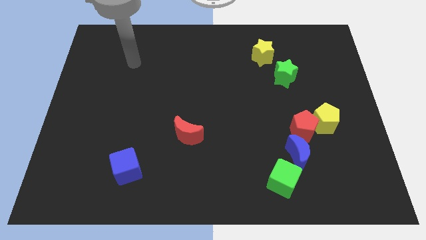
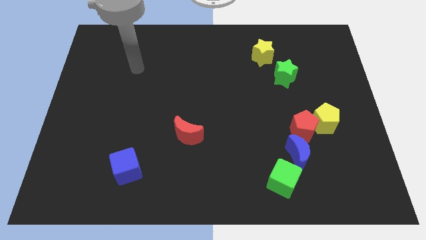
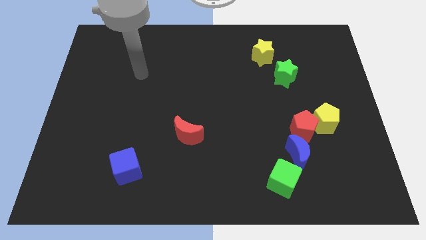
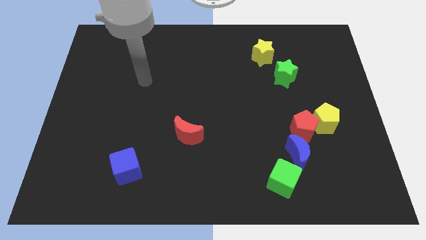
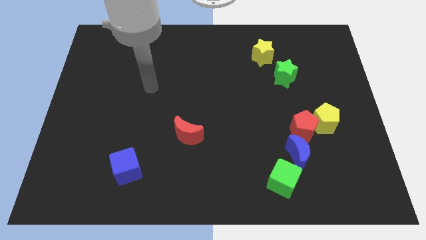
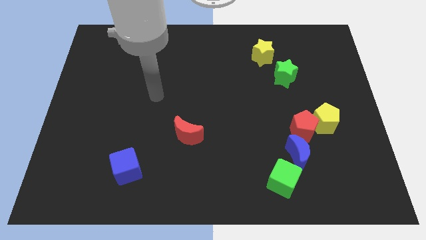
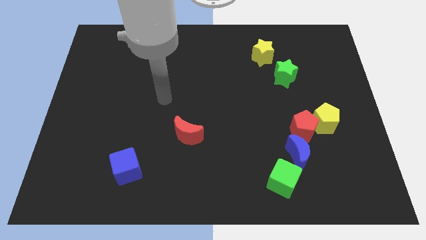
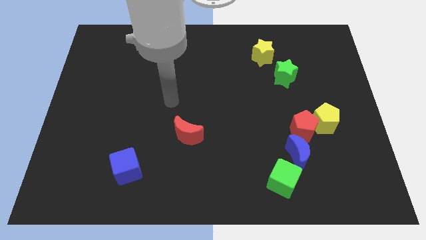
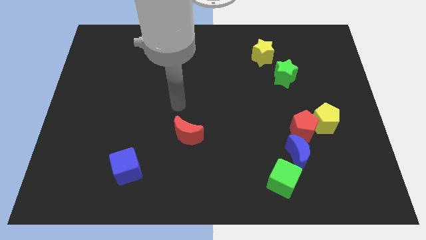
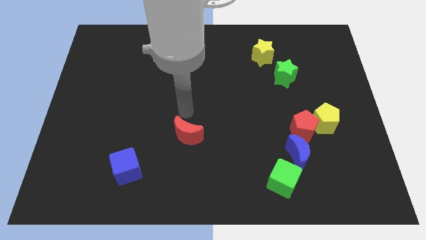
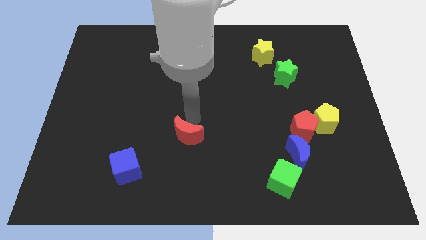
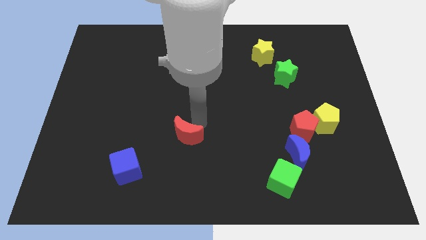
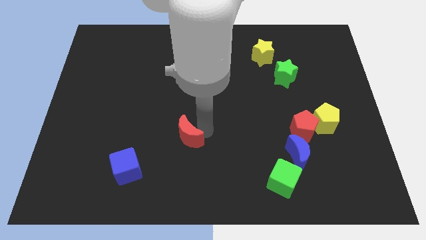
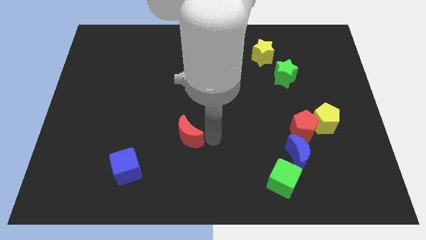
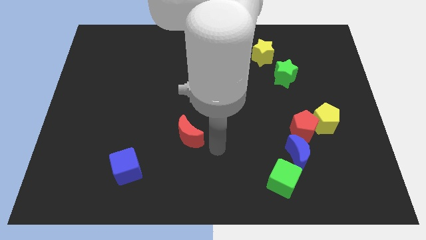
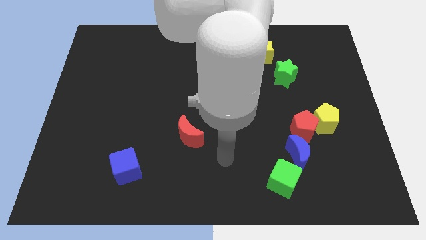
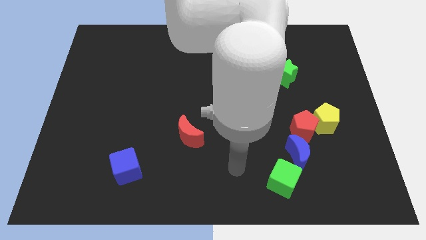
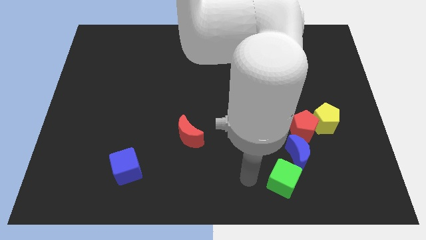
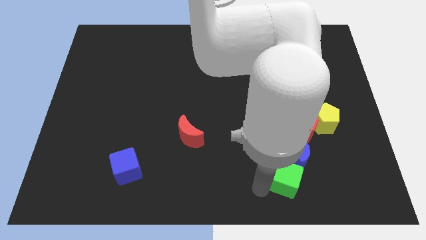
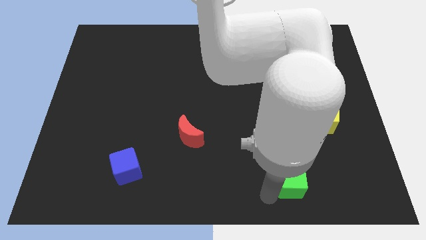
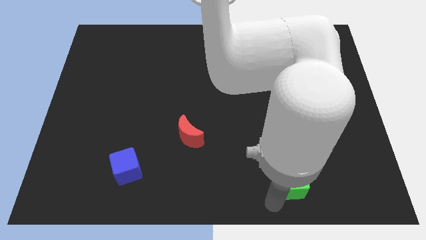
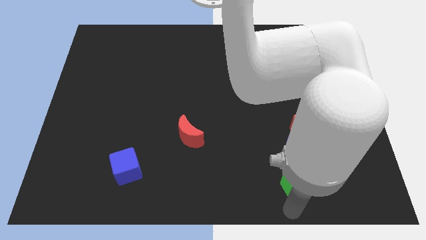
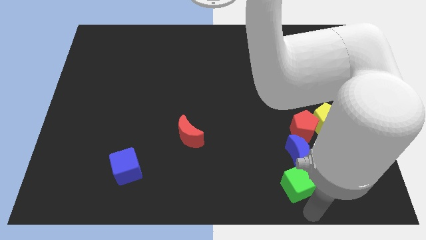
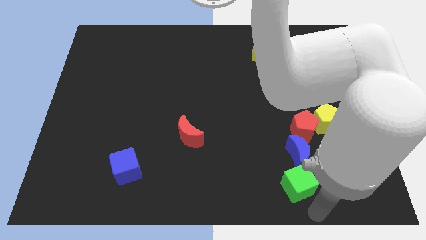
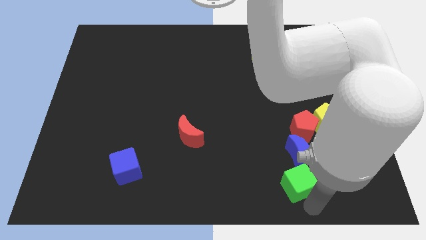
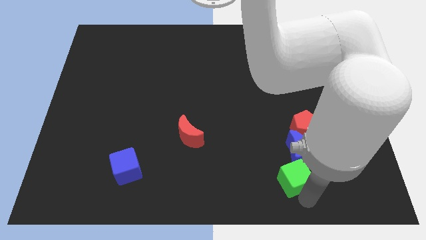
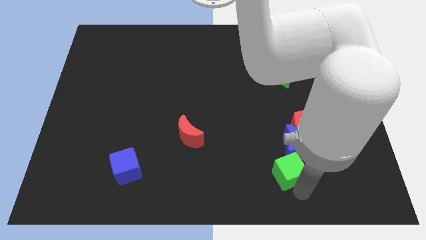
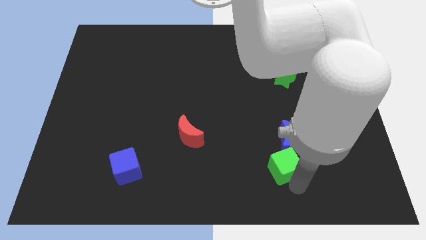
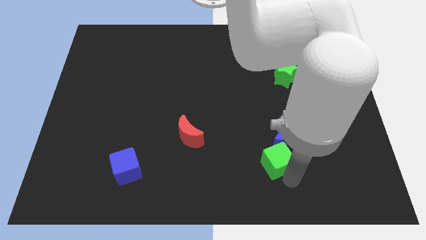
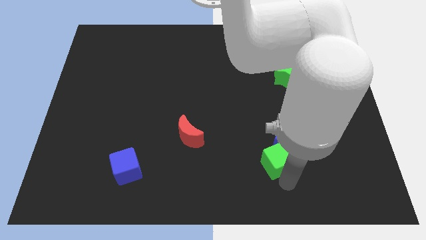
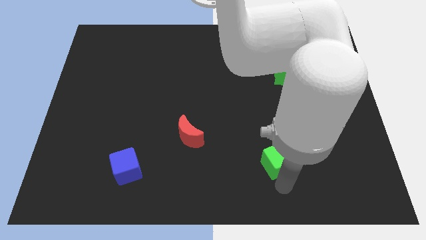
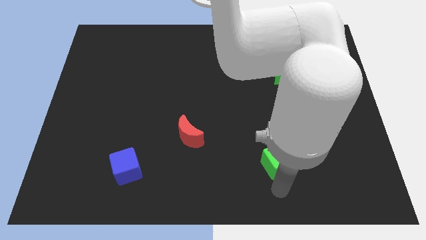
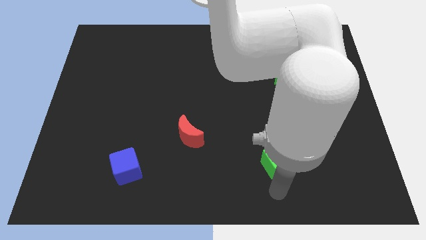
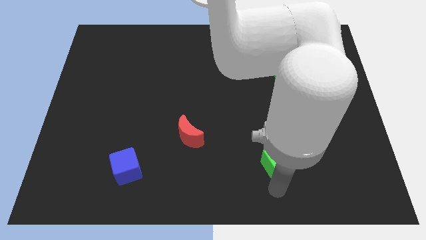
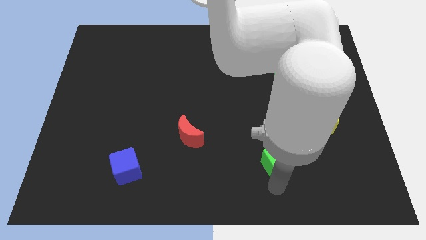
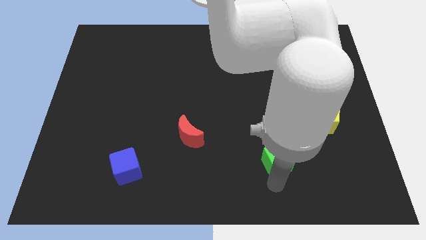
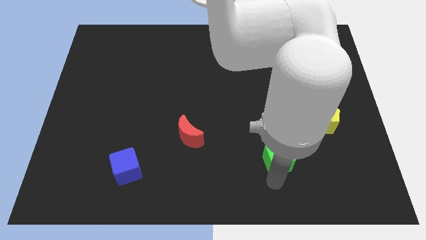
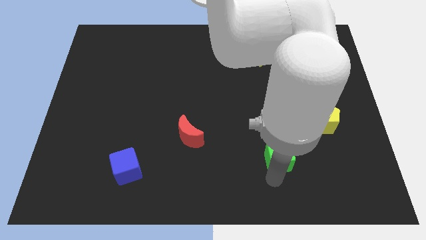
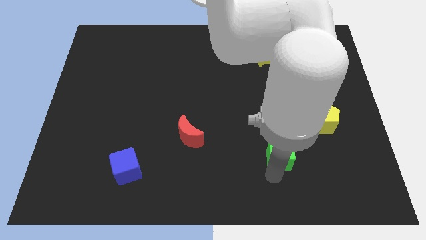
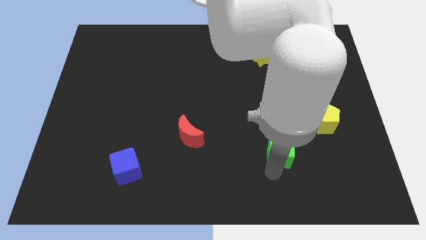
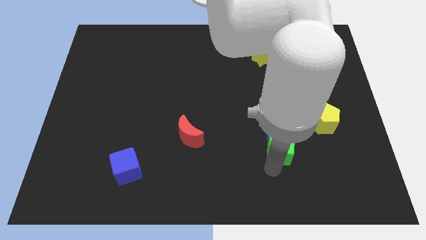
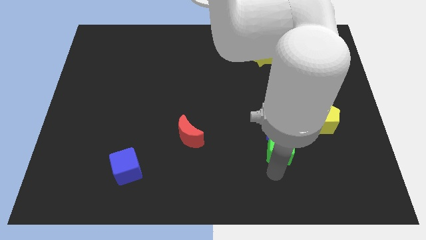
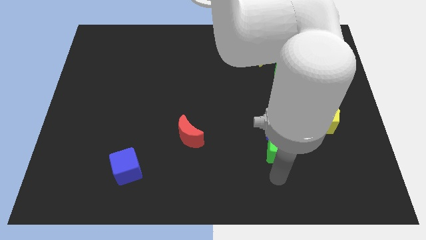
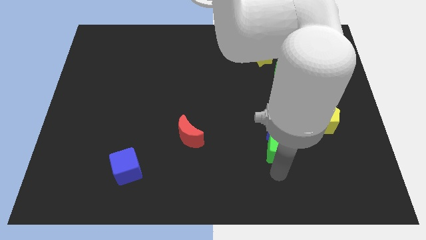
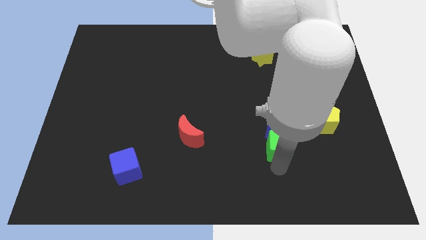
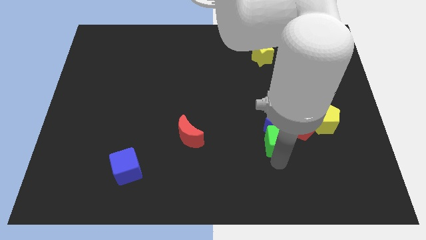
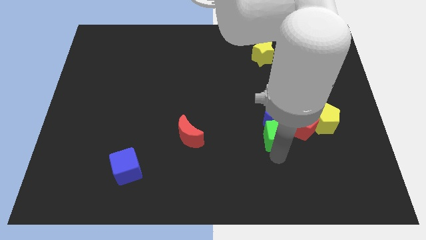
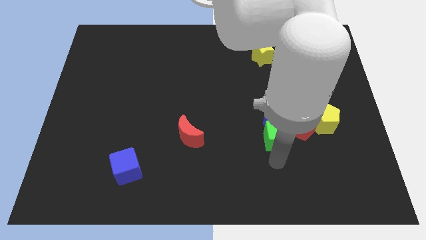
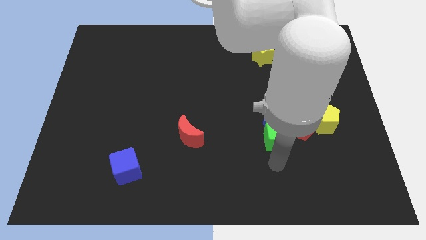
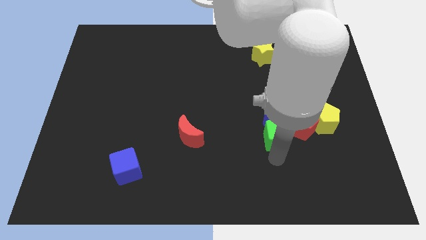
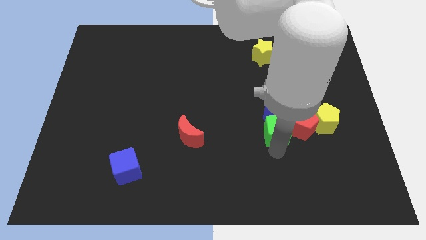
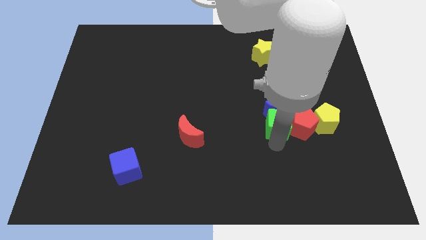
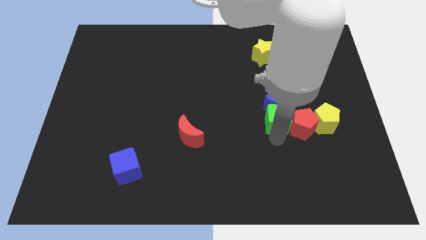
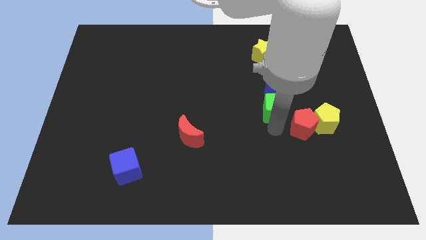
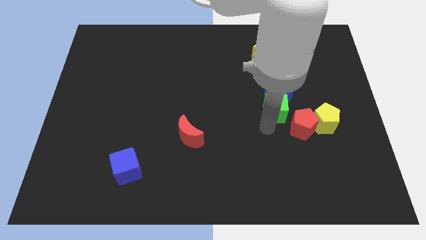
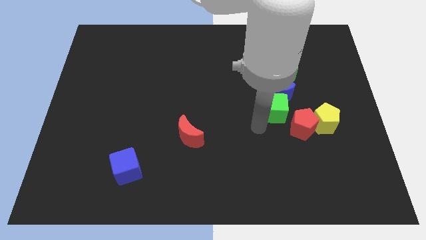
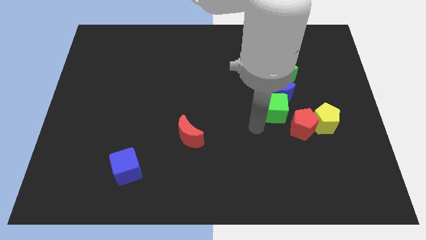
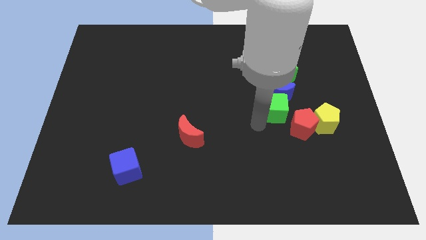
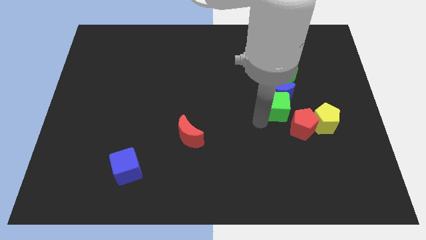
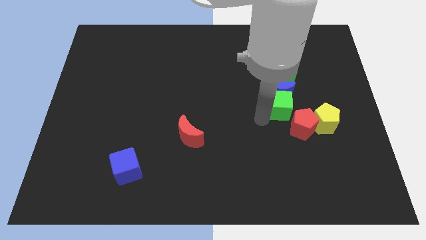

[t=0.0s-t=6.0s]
move the green cube to the top side of the red pentagon

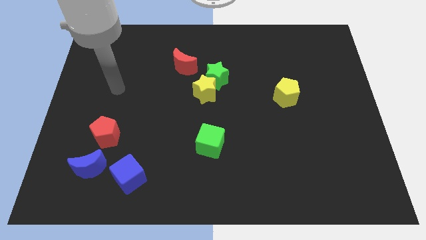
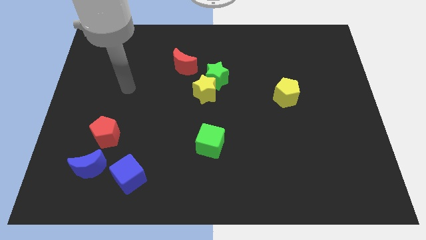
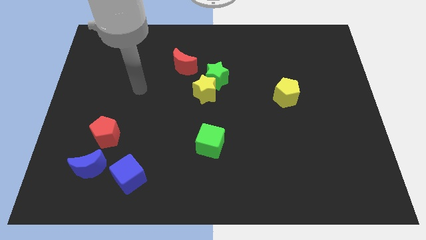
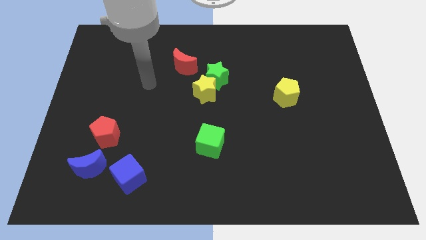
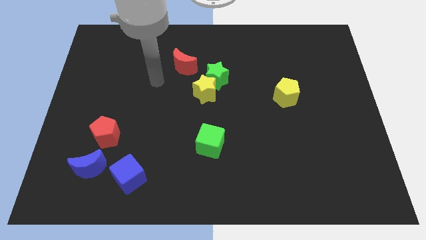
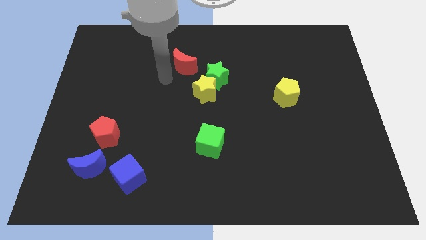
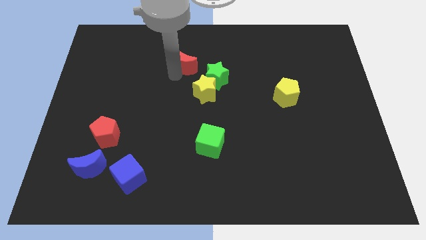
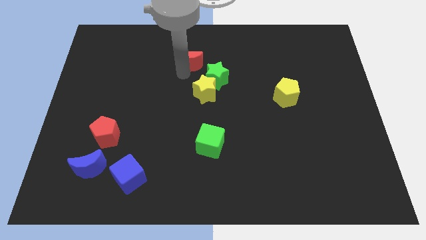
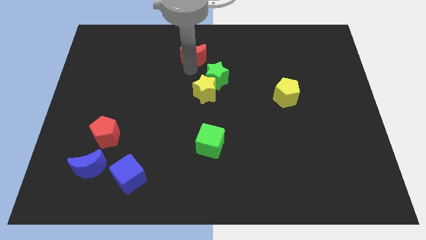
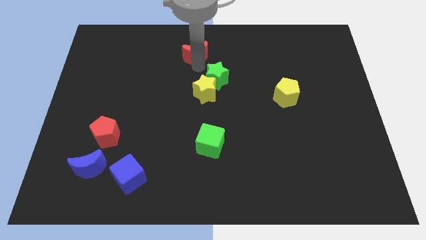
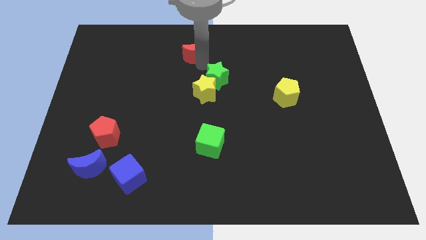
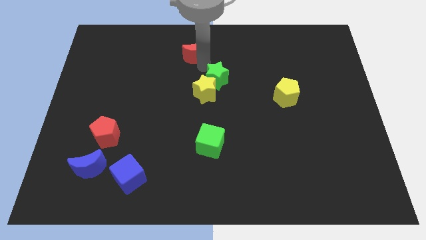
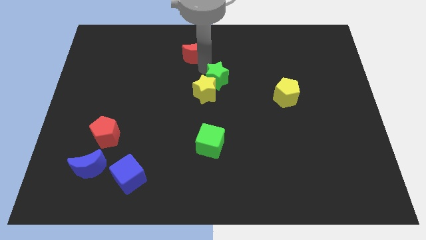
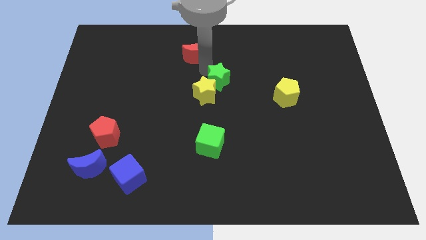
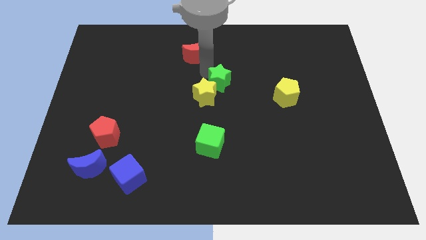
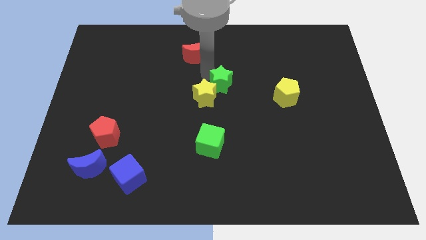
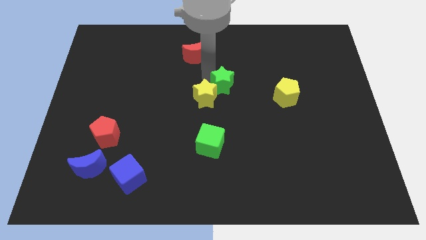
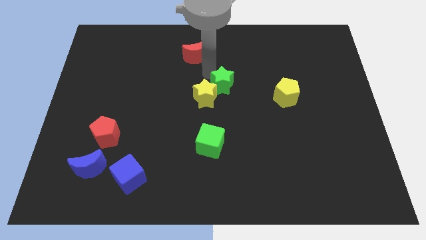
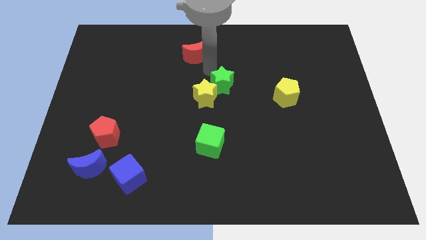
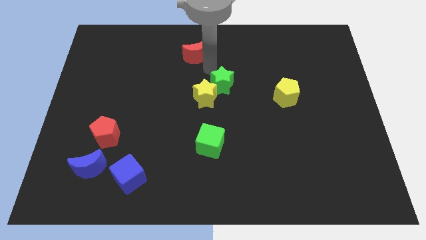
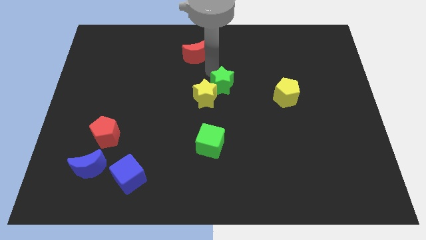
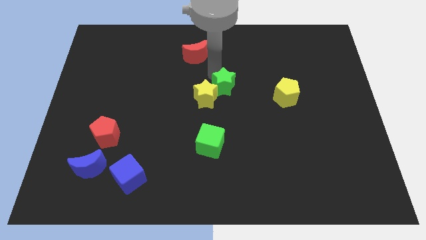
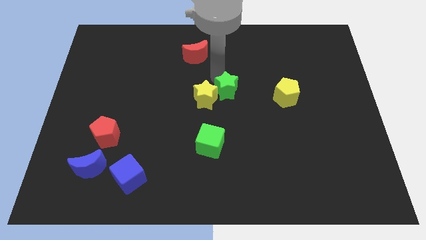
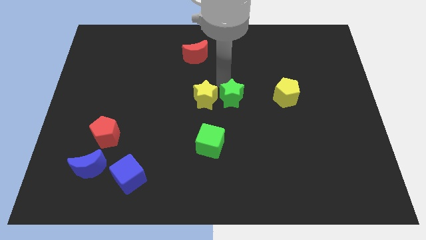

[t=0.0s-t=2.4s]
move the green star to the bottom right of the yellow star
